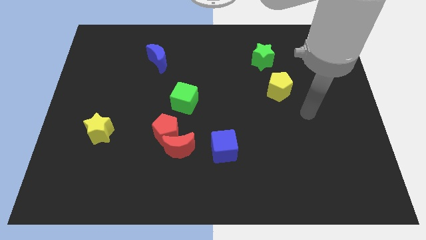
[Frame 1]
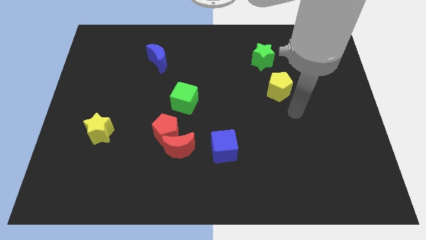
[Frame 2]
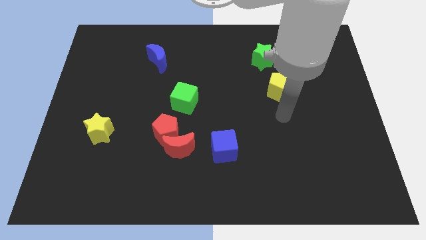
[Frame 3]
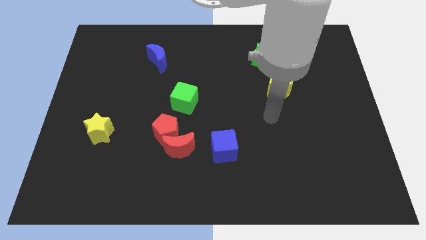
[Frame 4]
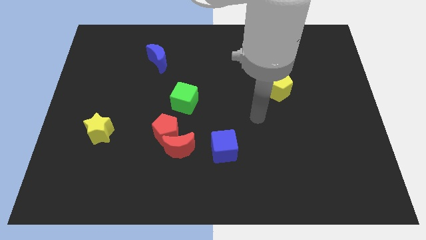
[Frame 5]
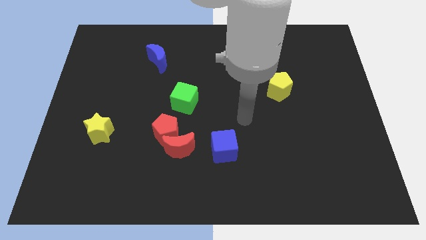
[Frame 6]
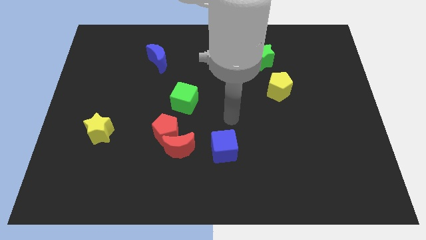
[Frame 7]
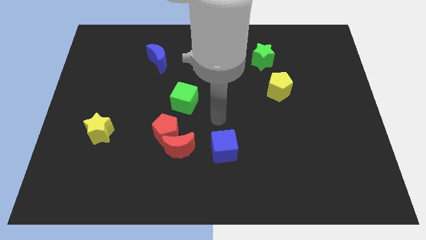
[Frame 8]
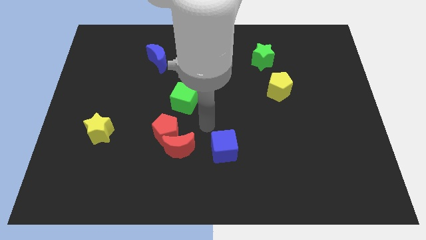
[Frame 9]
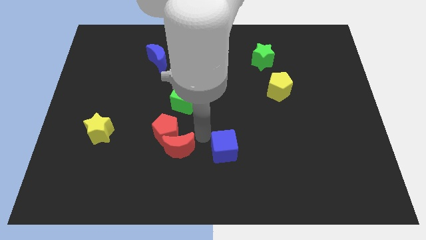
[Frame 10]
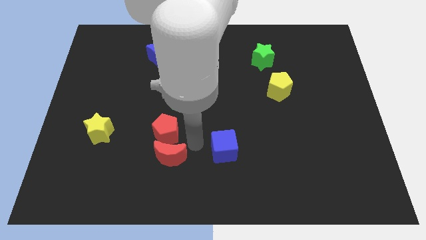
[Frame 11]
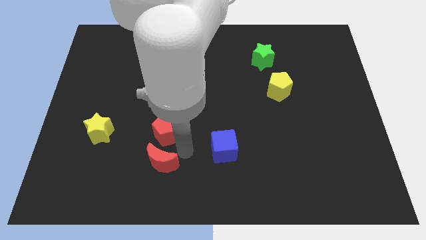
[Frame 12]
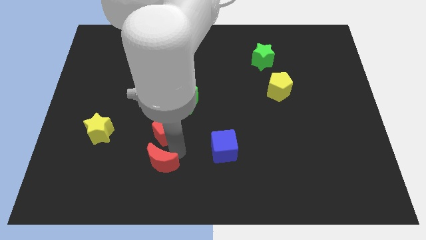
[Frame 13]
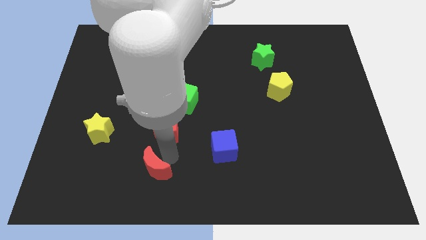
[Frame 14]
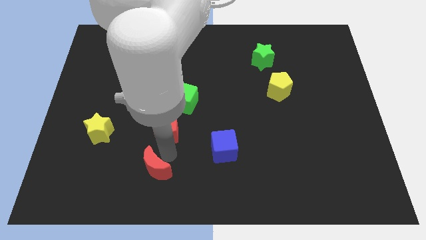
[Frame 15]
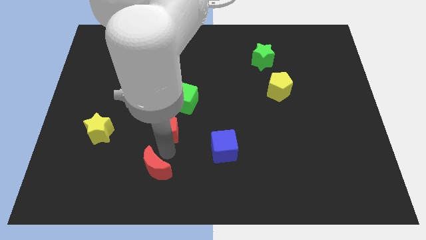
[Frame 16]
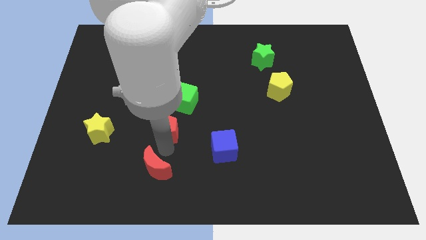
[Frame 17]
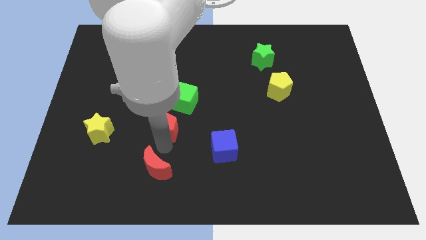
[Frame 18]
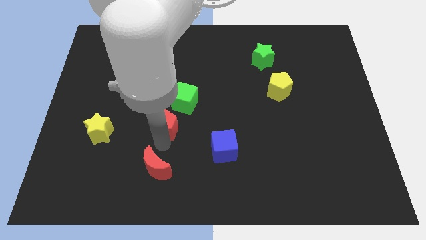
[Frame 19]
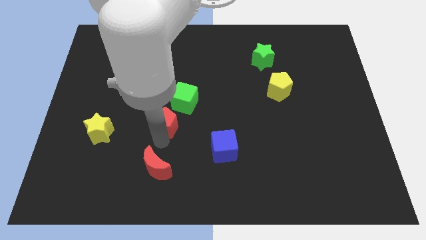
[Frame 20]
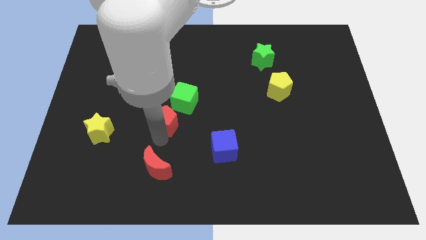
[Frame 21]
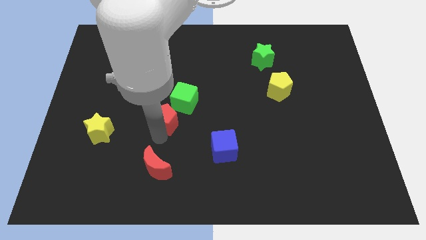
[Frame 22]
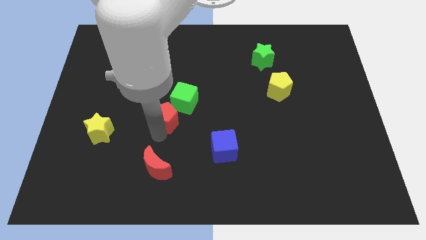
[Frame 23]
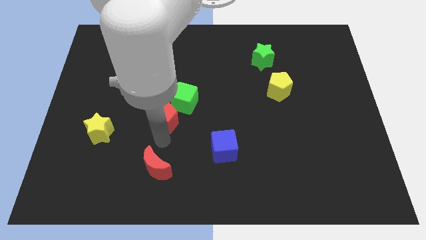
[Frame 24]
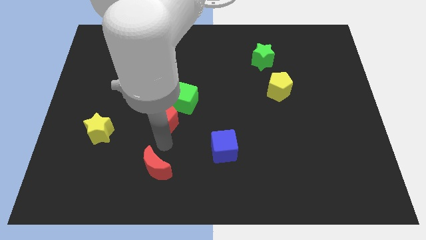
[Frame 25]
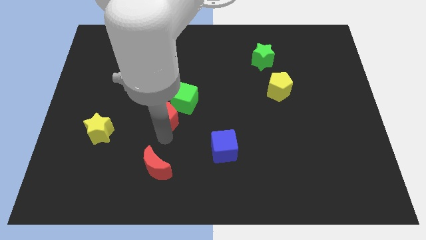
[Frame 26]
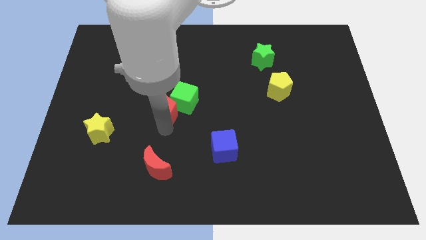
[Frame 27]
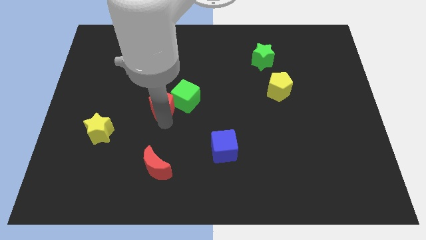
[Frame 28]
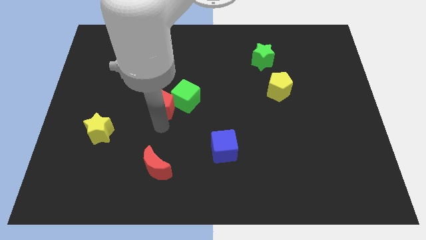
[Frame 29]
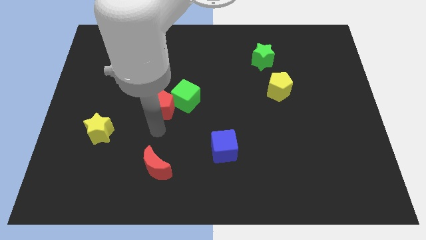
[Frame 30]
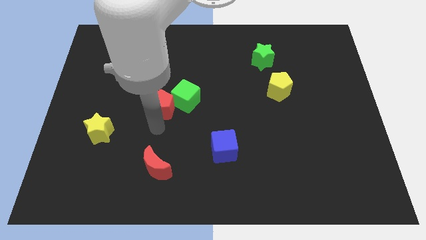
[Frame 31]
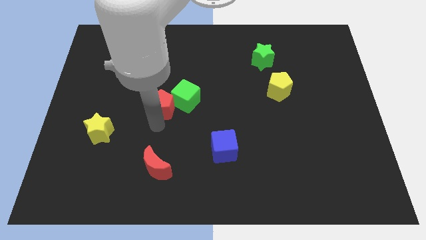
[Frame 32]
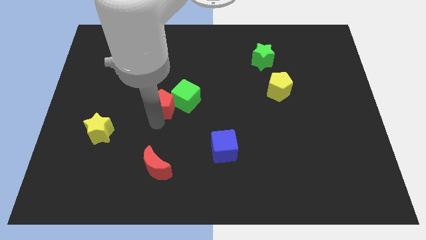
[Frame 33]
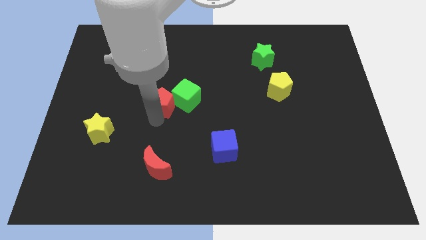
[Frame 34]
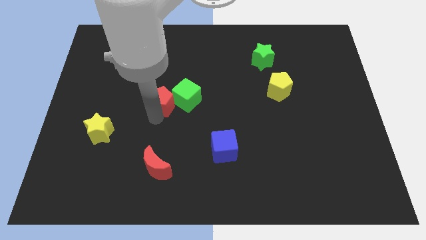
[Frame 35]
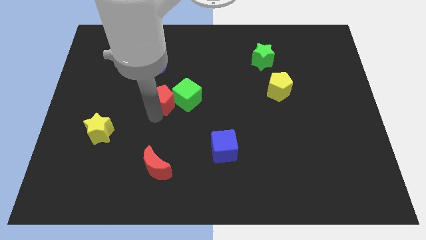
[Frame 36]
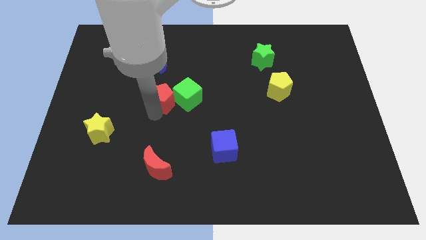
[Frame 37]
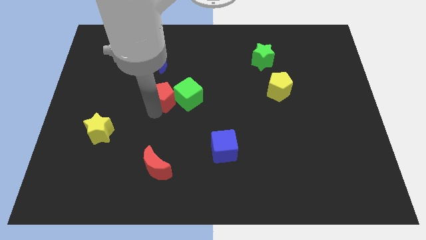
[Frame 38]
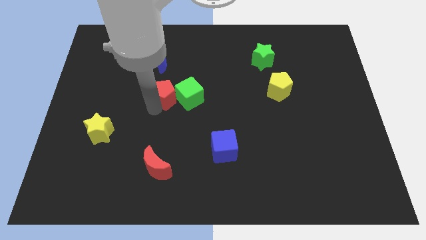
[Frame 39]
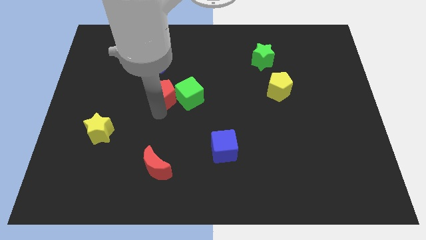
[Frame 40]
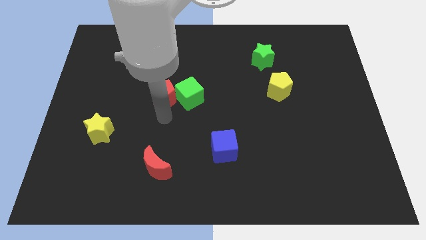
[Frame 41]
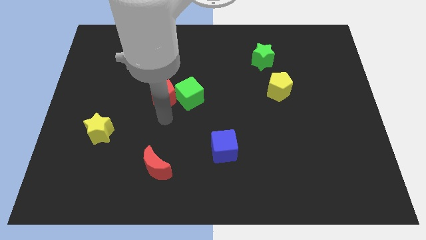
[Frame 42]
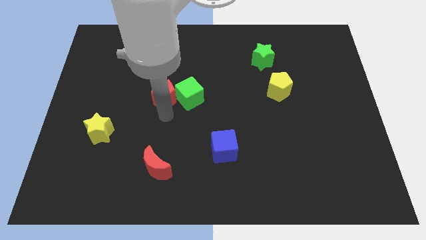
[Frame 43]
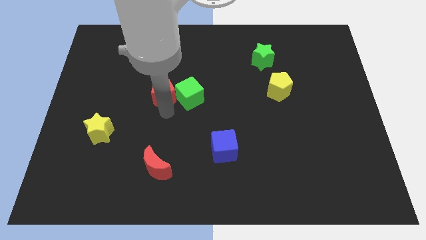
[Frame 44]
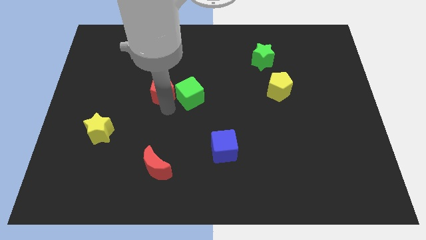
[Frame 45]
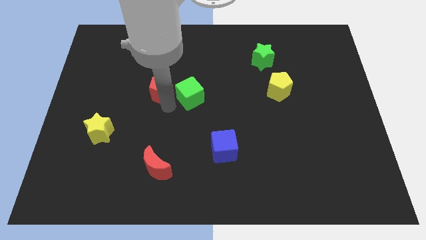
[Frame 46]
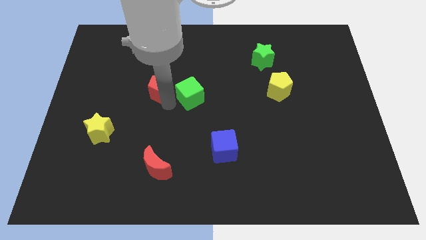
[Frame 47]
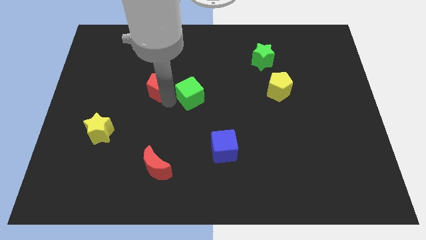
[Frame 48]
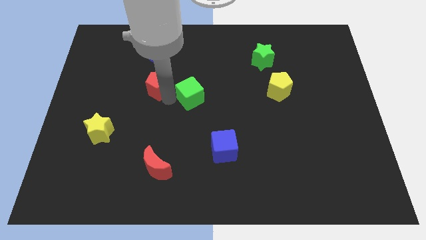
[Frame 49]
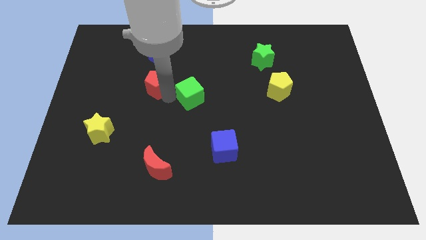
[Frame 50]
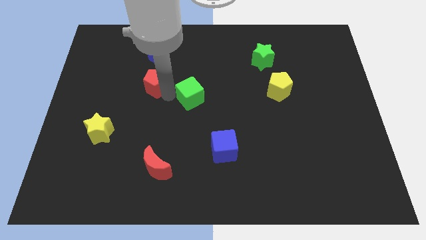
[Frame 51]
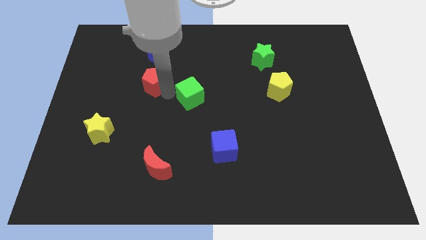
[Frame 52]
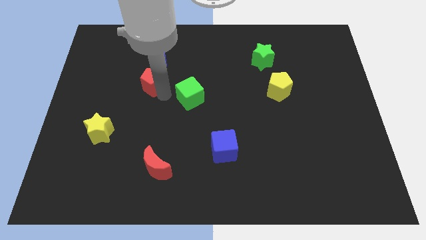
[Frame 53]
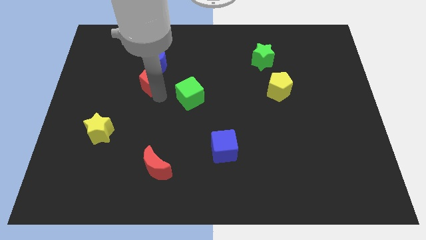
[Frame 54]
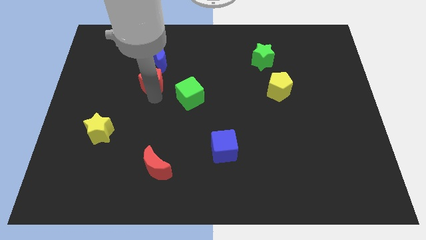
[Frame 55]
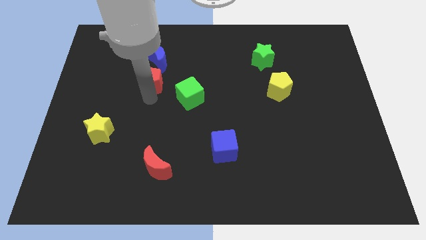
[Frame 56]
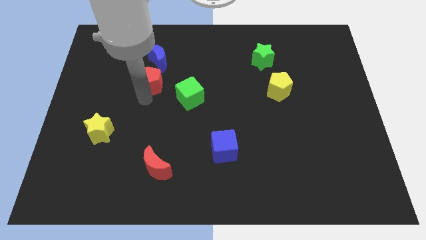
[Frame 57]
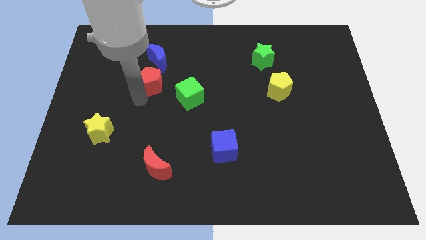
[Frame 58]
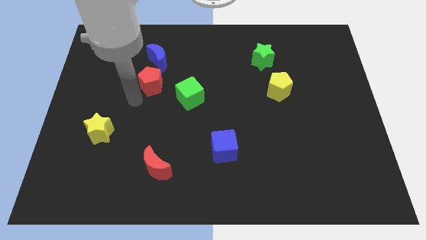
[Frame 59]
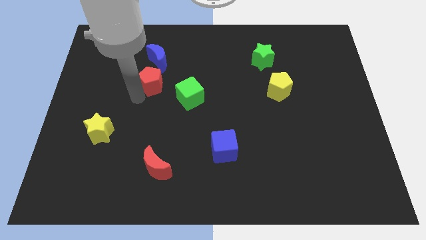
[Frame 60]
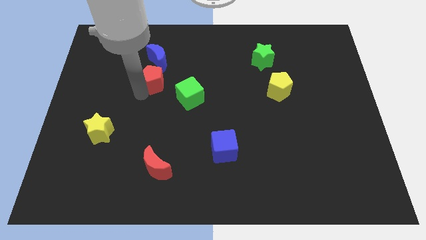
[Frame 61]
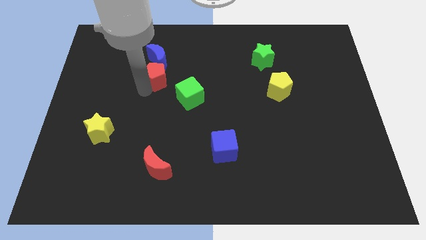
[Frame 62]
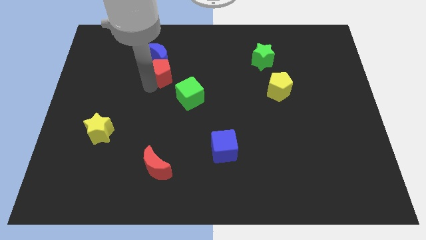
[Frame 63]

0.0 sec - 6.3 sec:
push the red pentagon towards the blue moon

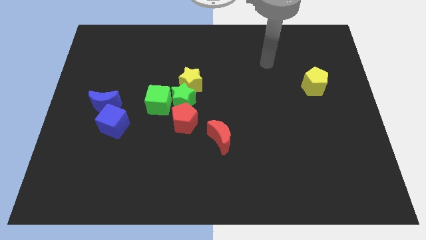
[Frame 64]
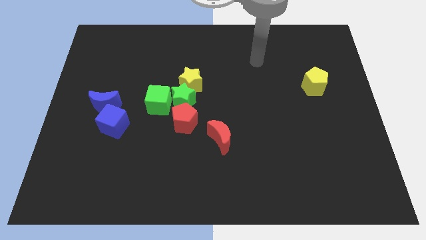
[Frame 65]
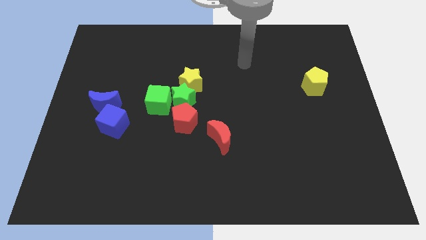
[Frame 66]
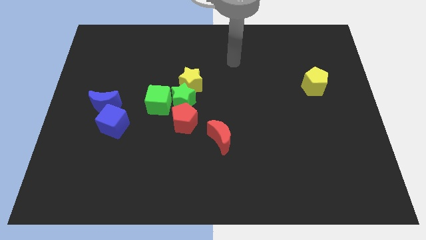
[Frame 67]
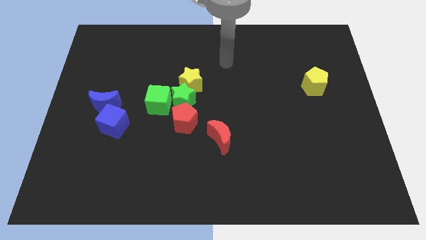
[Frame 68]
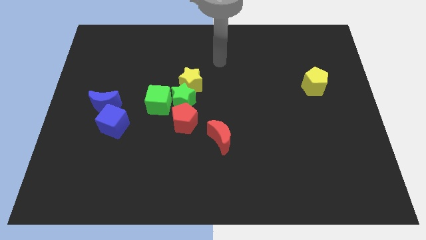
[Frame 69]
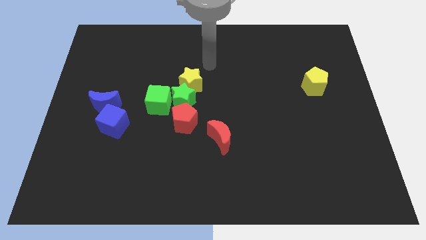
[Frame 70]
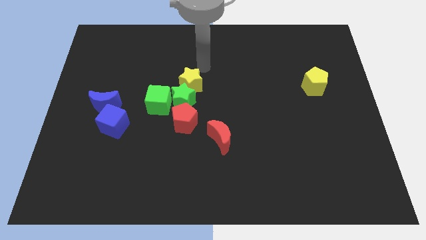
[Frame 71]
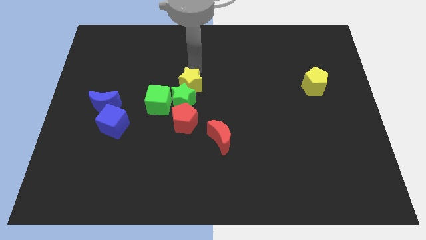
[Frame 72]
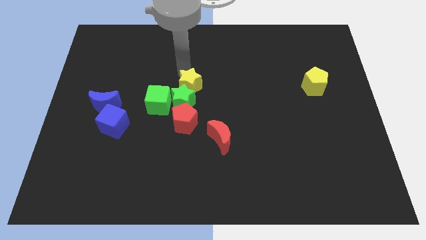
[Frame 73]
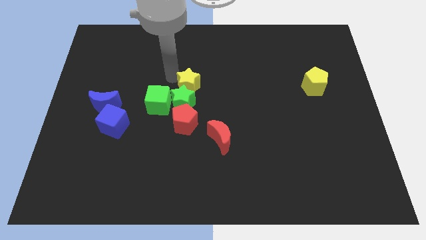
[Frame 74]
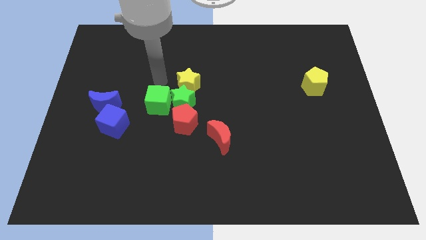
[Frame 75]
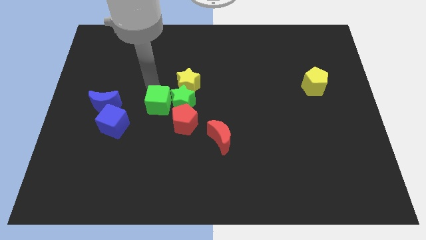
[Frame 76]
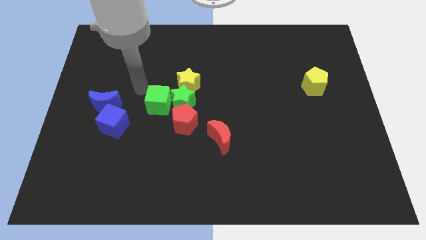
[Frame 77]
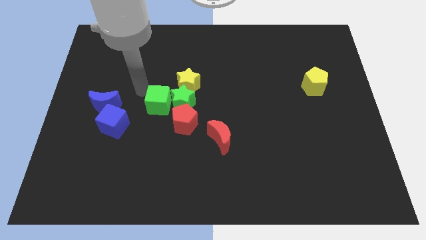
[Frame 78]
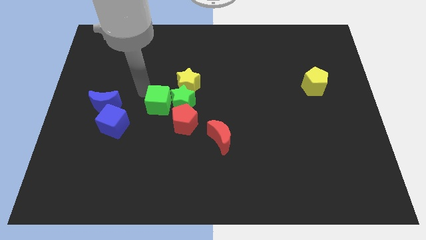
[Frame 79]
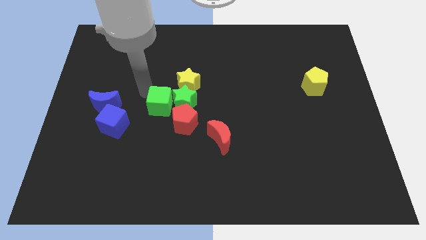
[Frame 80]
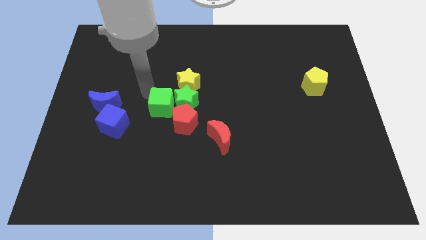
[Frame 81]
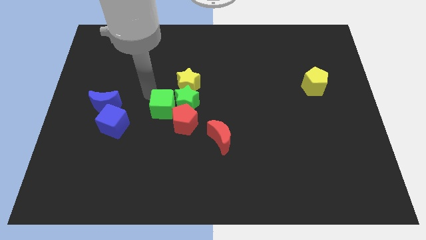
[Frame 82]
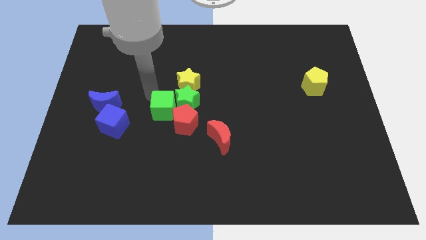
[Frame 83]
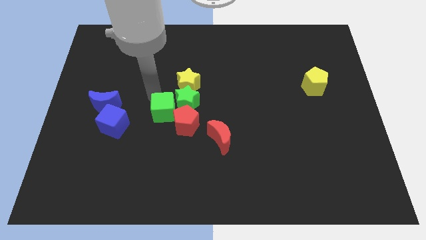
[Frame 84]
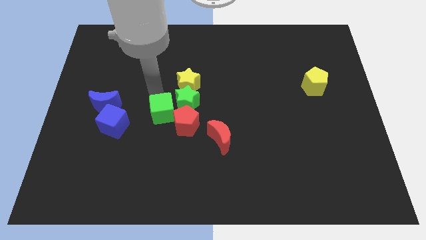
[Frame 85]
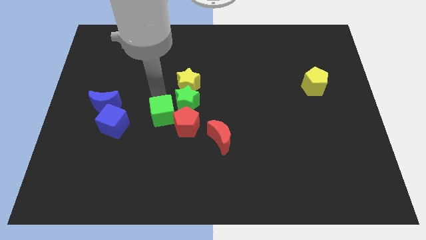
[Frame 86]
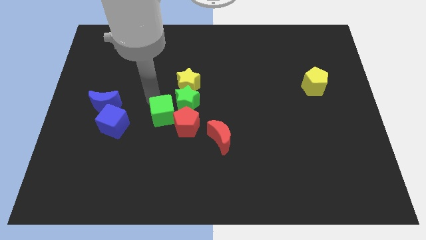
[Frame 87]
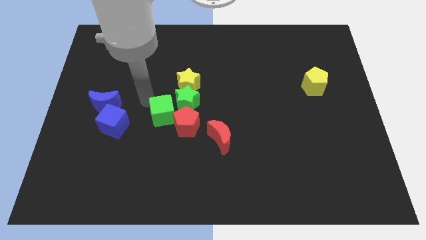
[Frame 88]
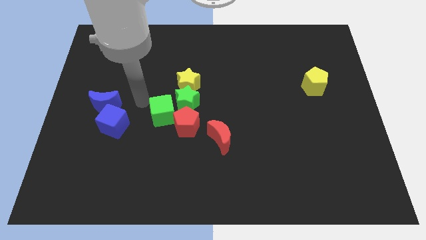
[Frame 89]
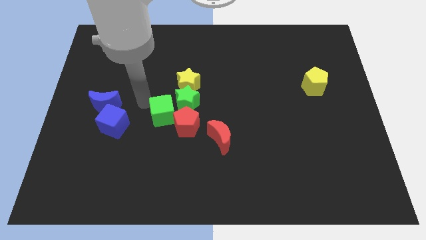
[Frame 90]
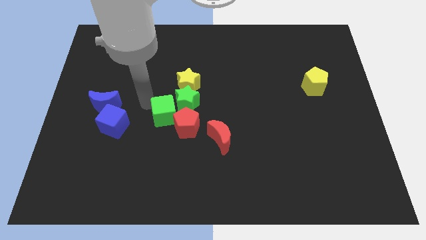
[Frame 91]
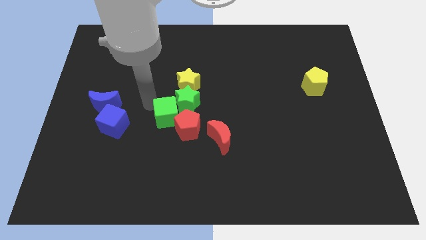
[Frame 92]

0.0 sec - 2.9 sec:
slide the green cube towards the red pentagon
